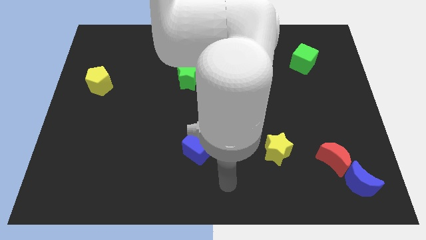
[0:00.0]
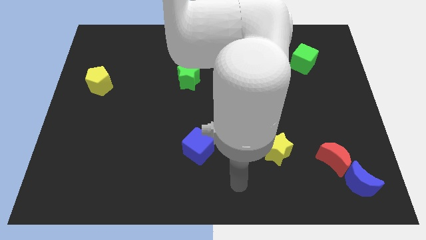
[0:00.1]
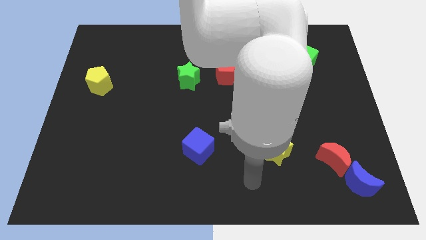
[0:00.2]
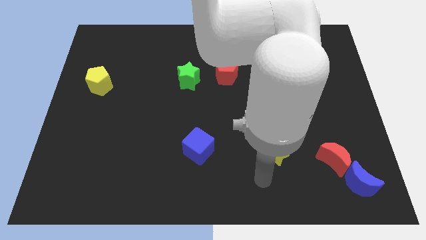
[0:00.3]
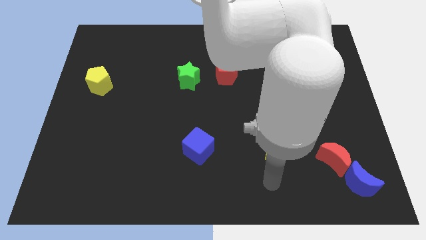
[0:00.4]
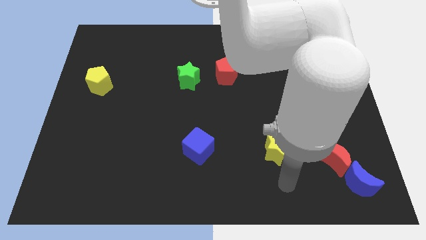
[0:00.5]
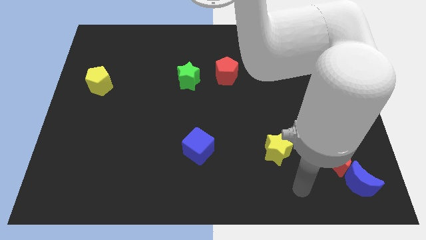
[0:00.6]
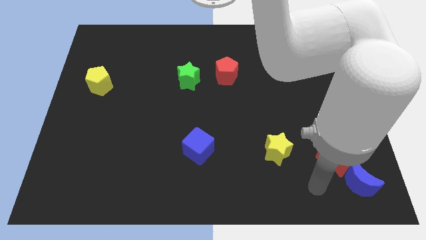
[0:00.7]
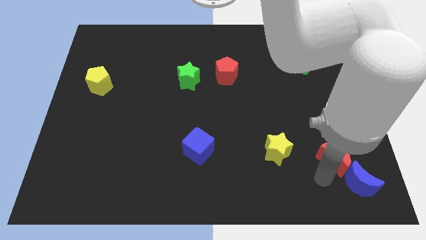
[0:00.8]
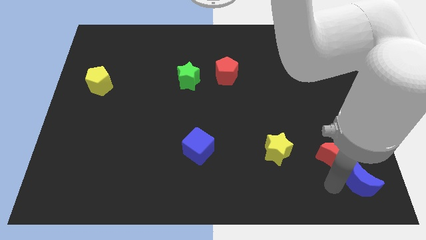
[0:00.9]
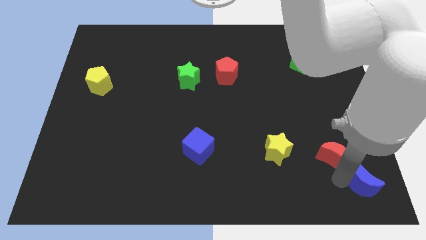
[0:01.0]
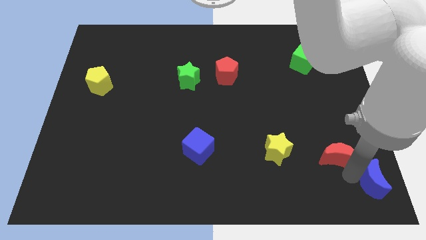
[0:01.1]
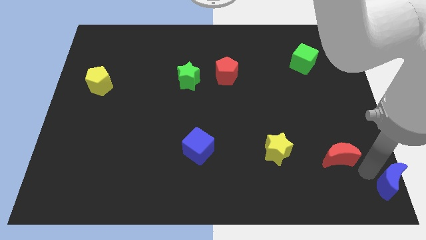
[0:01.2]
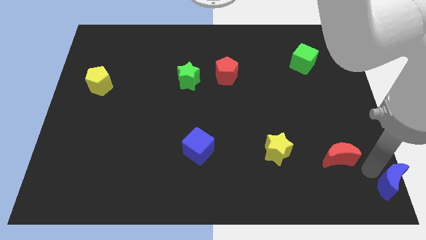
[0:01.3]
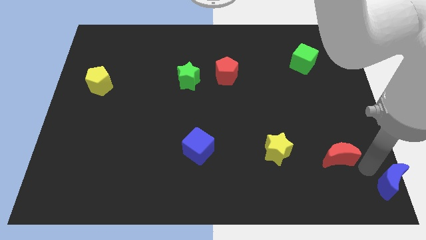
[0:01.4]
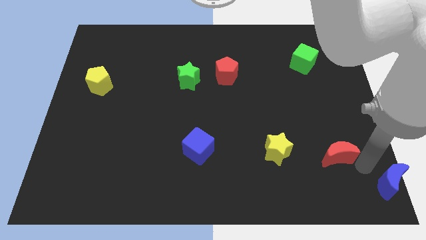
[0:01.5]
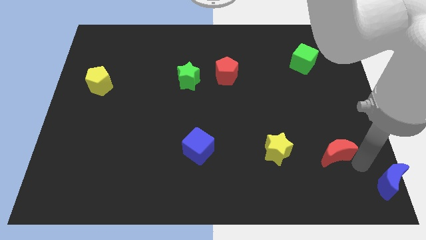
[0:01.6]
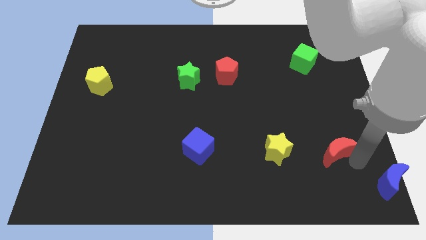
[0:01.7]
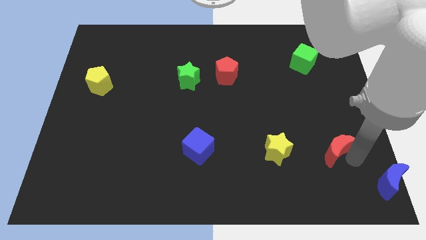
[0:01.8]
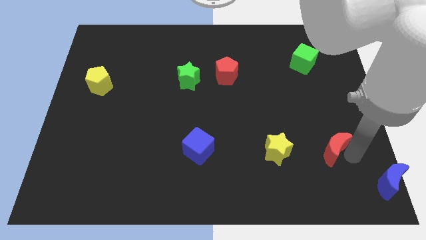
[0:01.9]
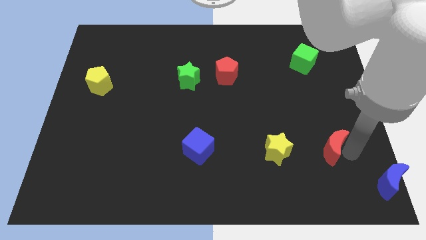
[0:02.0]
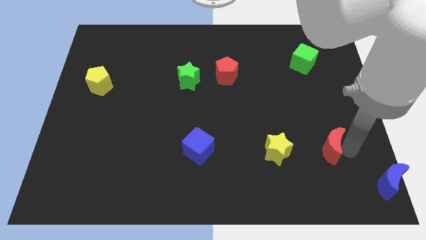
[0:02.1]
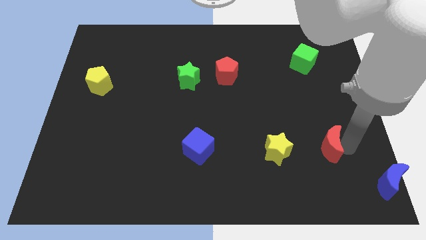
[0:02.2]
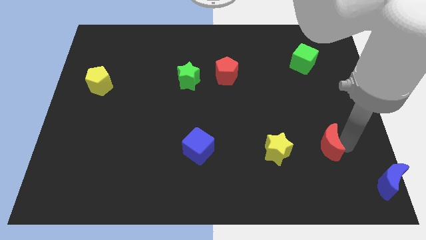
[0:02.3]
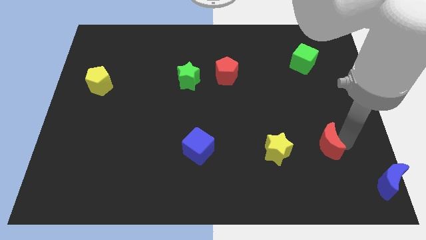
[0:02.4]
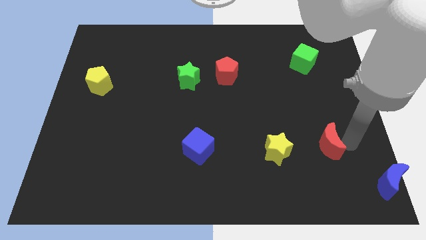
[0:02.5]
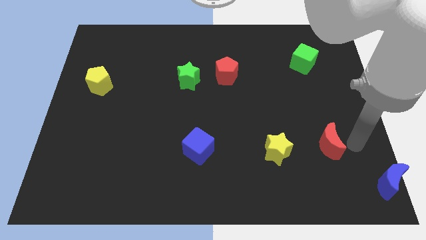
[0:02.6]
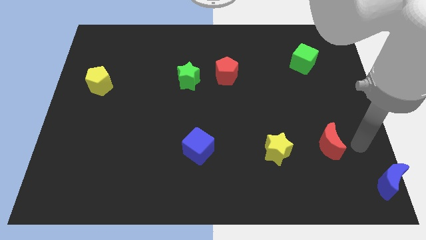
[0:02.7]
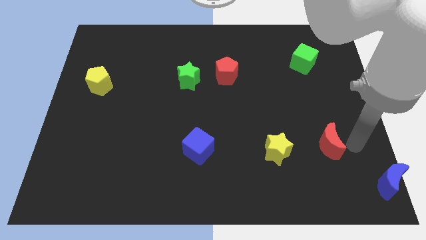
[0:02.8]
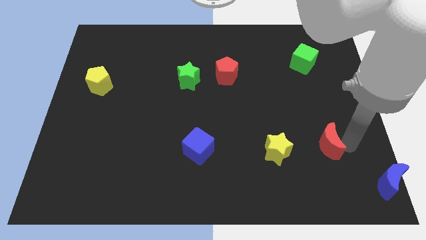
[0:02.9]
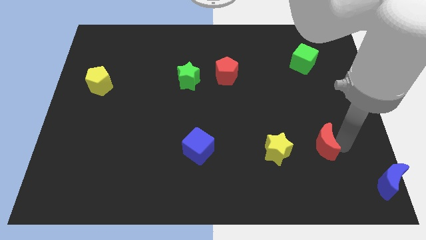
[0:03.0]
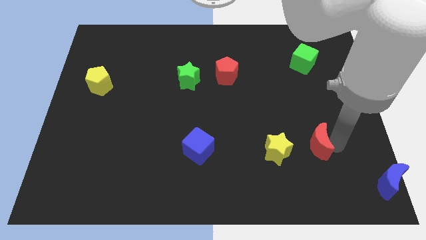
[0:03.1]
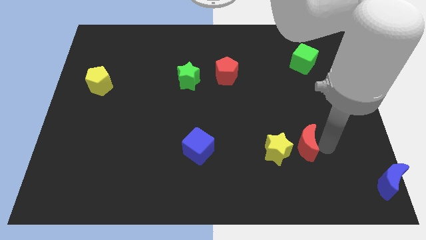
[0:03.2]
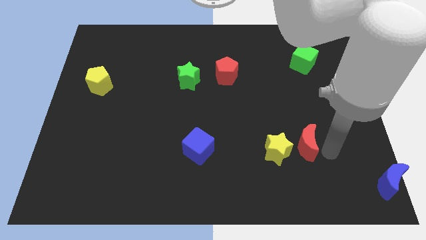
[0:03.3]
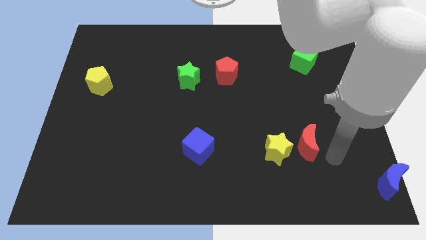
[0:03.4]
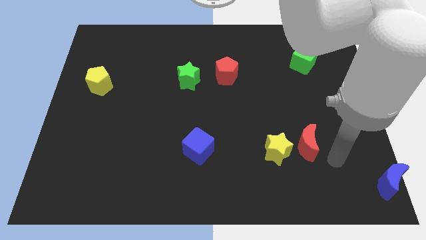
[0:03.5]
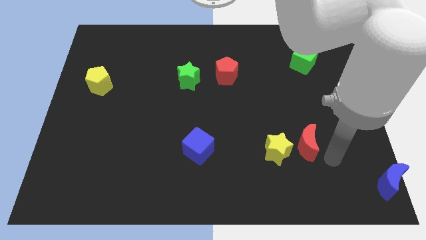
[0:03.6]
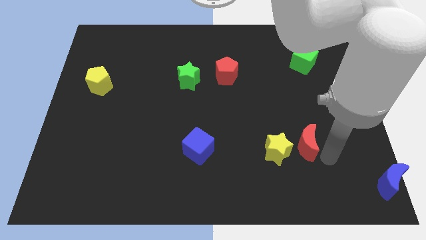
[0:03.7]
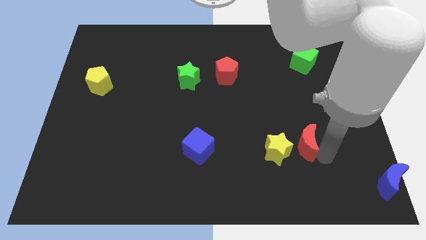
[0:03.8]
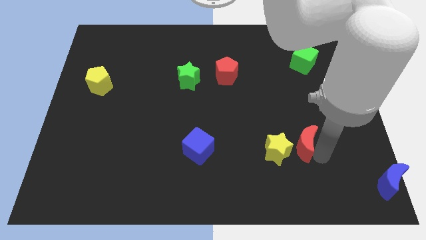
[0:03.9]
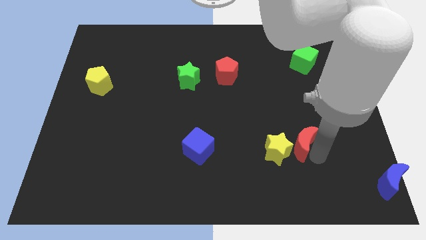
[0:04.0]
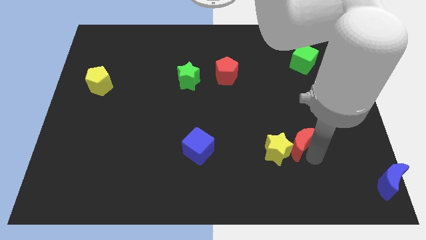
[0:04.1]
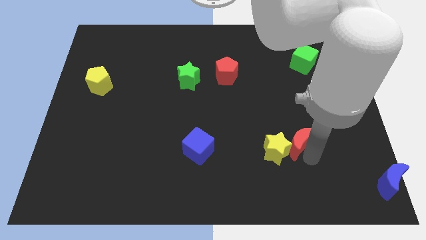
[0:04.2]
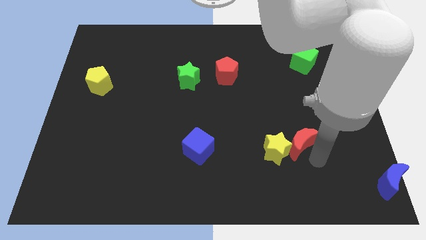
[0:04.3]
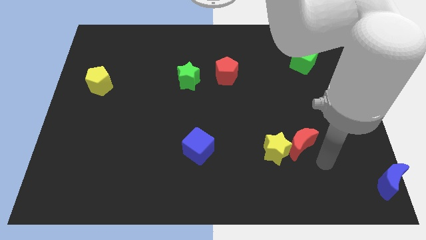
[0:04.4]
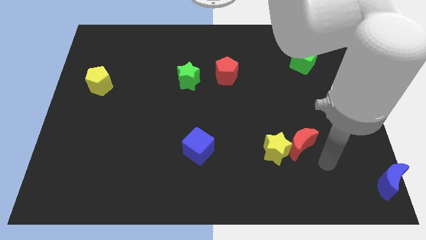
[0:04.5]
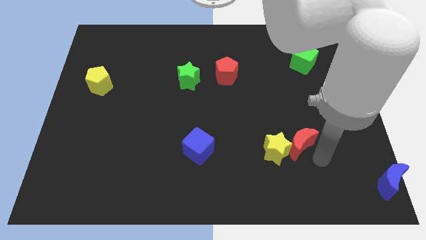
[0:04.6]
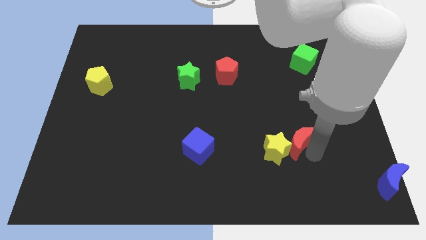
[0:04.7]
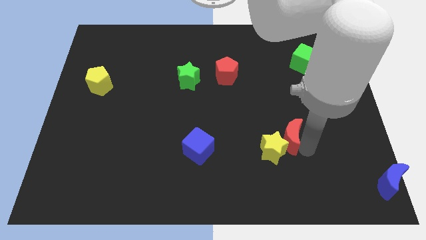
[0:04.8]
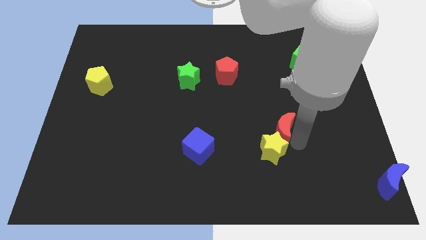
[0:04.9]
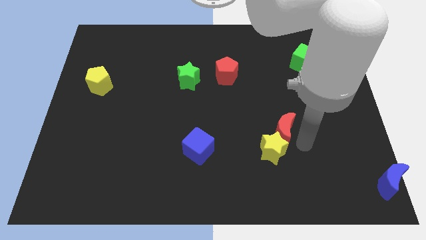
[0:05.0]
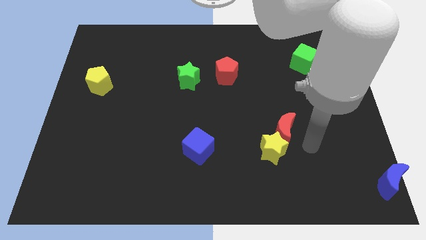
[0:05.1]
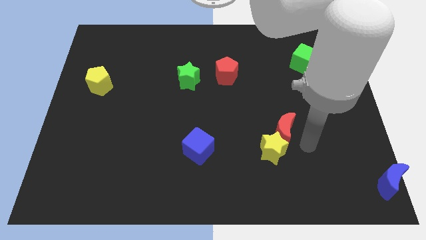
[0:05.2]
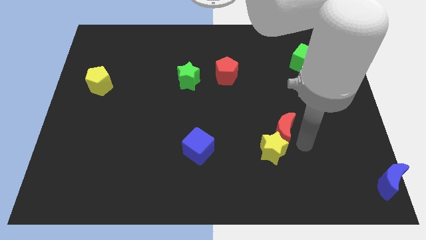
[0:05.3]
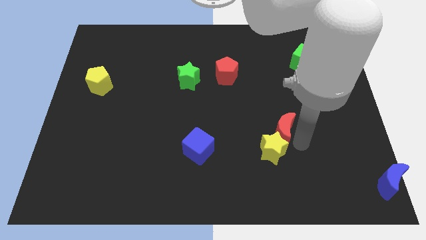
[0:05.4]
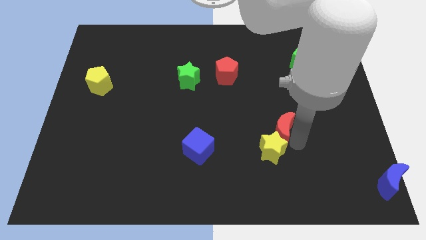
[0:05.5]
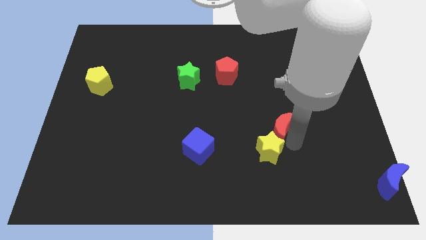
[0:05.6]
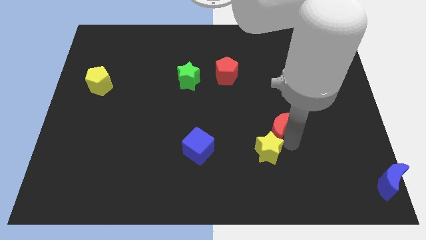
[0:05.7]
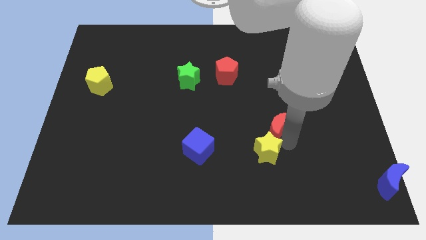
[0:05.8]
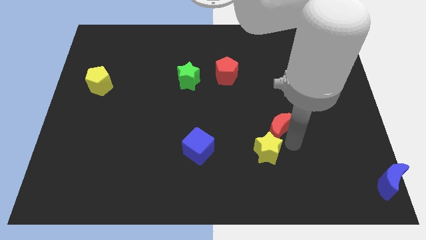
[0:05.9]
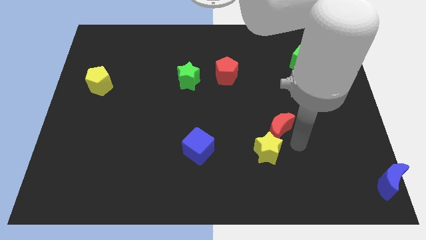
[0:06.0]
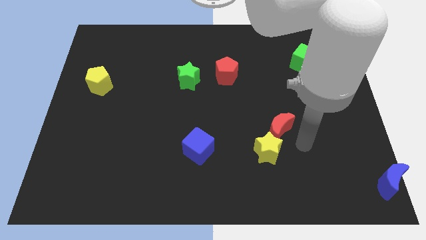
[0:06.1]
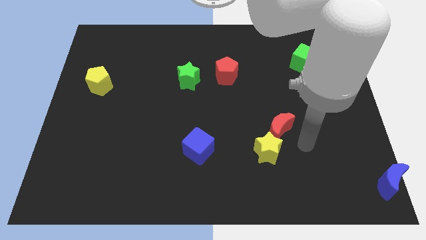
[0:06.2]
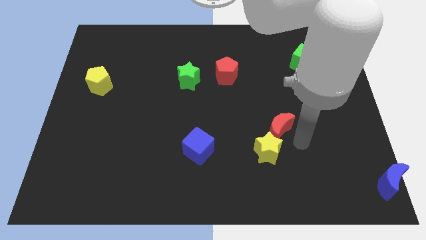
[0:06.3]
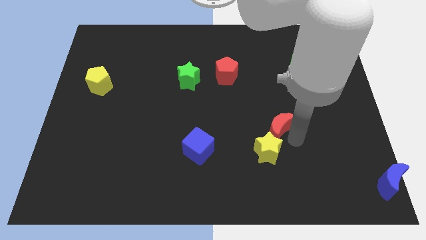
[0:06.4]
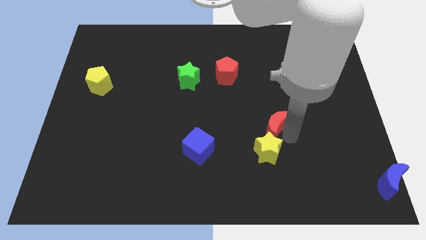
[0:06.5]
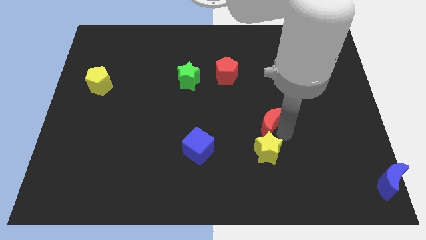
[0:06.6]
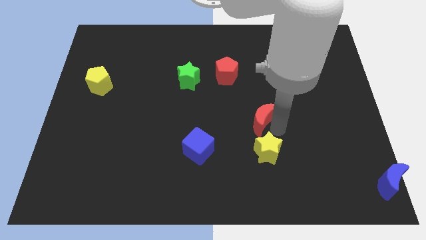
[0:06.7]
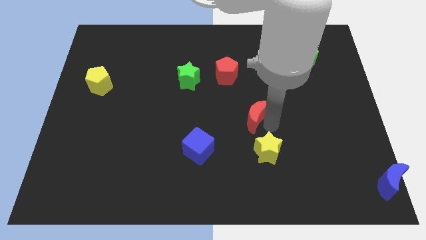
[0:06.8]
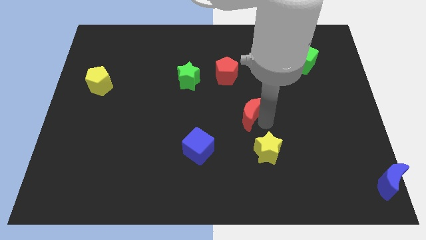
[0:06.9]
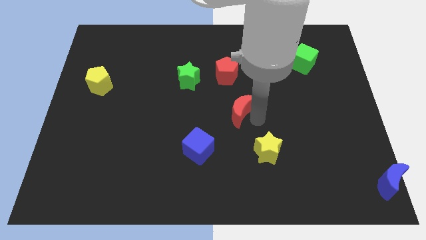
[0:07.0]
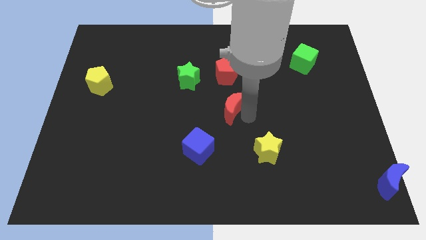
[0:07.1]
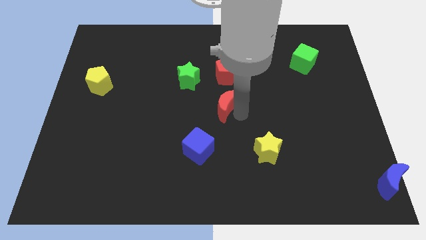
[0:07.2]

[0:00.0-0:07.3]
push the red moon to the bottom right side of the green star
